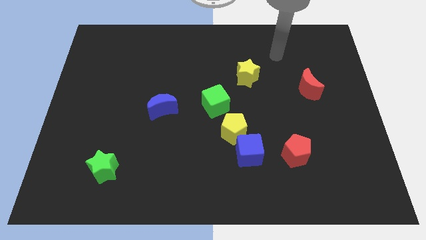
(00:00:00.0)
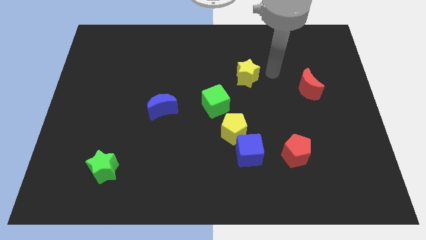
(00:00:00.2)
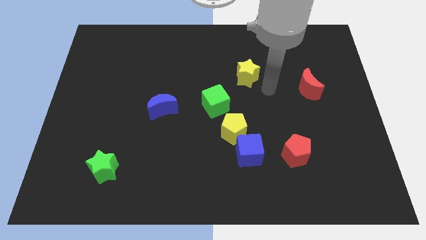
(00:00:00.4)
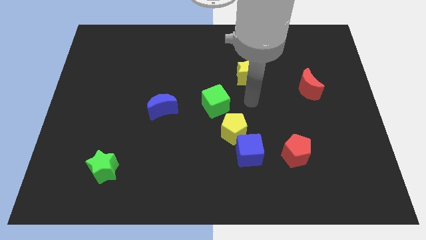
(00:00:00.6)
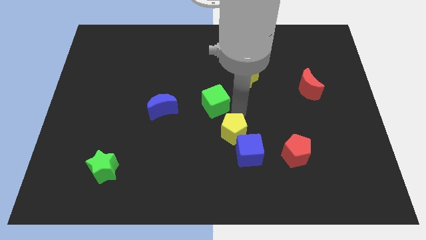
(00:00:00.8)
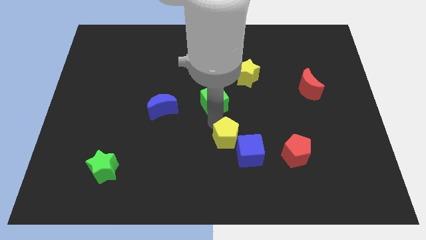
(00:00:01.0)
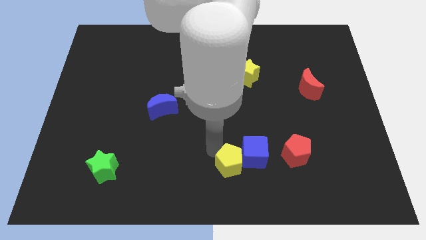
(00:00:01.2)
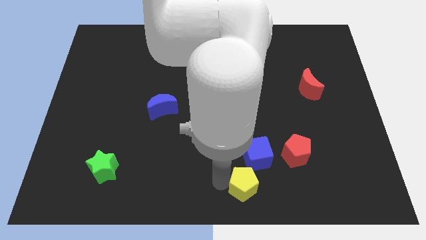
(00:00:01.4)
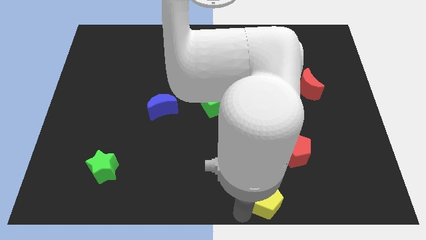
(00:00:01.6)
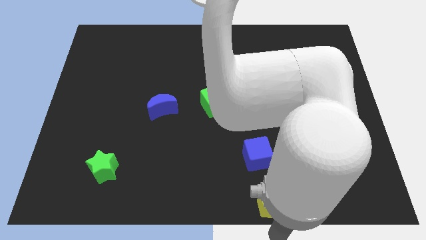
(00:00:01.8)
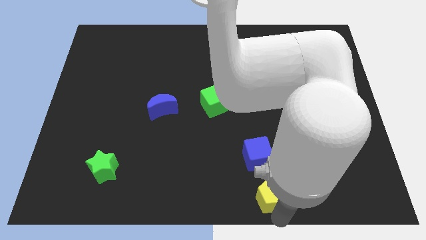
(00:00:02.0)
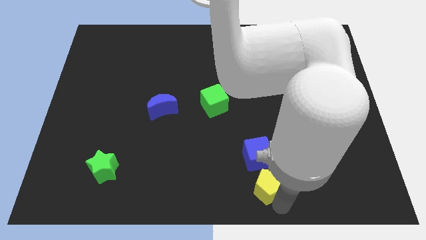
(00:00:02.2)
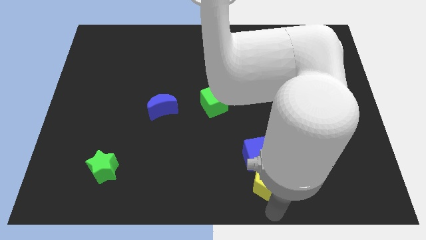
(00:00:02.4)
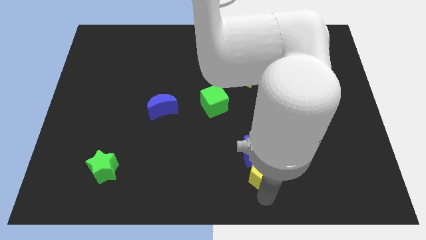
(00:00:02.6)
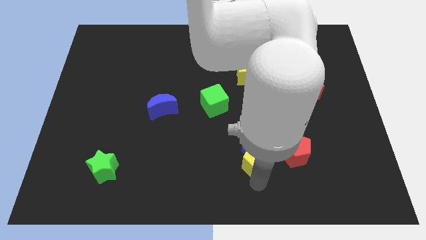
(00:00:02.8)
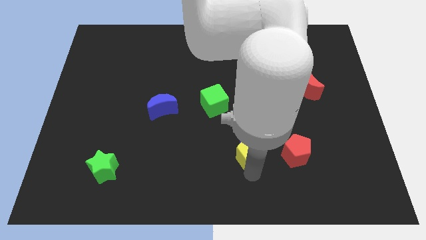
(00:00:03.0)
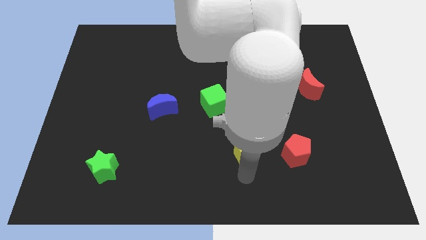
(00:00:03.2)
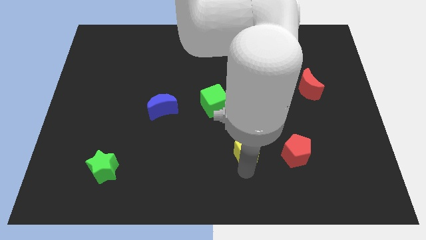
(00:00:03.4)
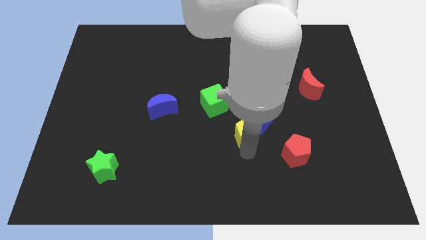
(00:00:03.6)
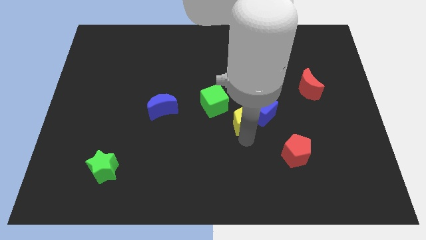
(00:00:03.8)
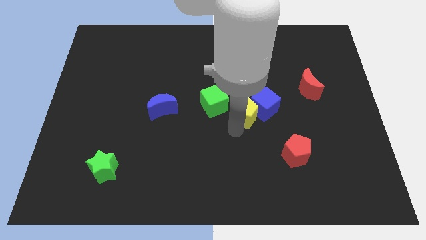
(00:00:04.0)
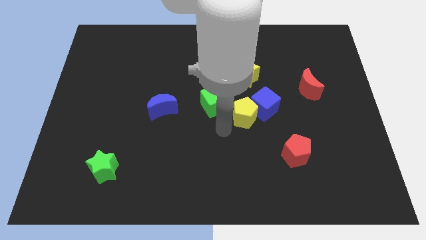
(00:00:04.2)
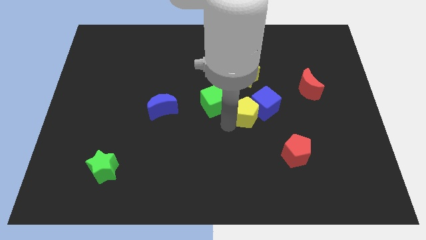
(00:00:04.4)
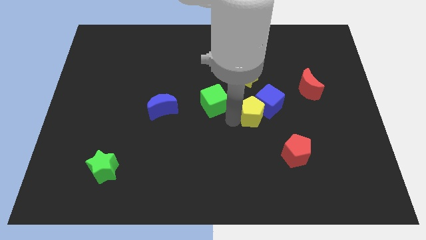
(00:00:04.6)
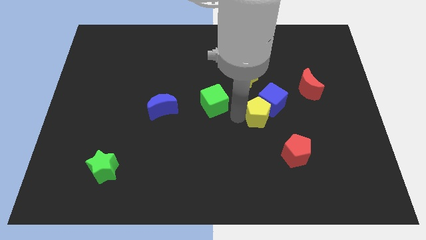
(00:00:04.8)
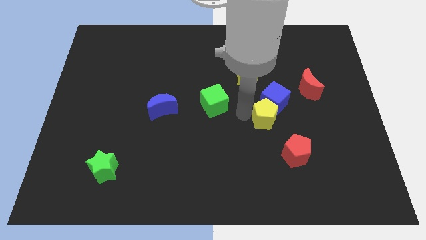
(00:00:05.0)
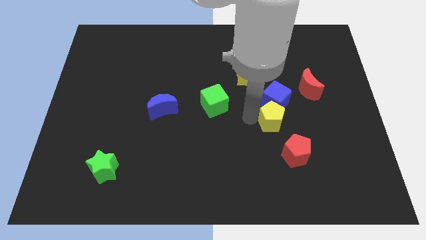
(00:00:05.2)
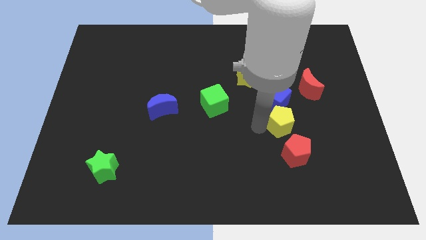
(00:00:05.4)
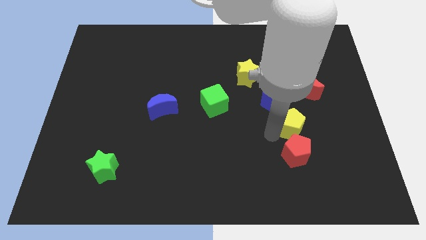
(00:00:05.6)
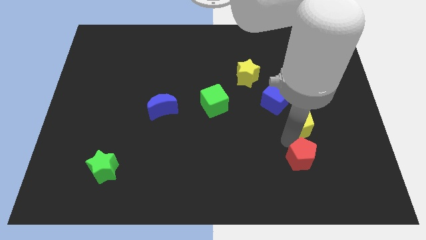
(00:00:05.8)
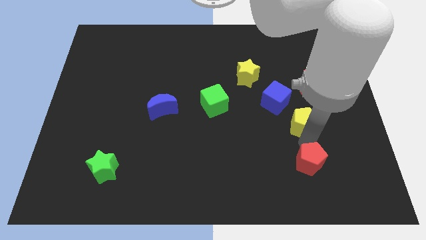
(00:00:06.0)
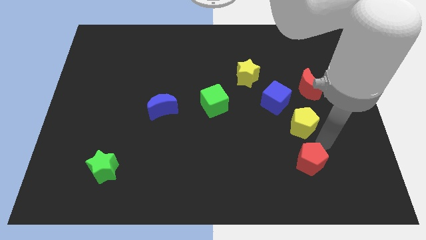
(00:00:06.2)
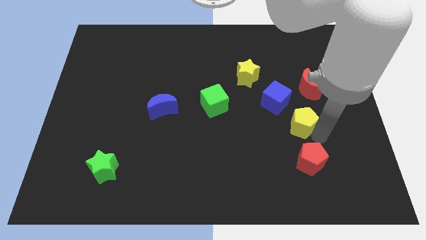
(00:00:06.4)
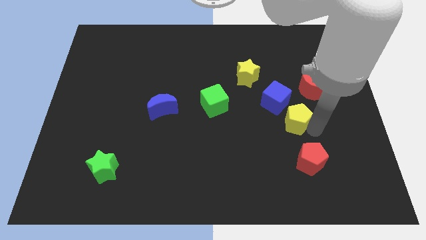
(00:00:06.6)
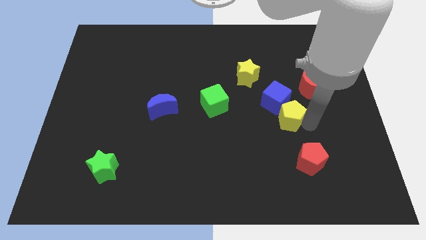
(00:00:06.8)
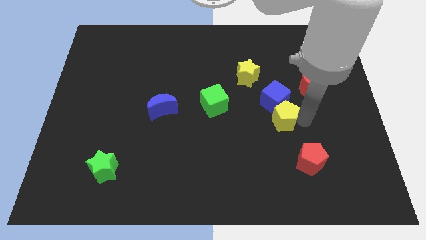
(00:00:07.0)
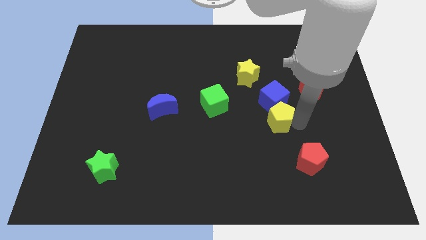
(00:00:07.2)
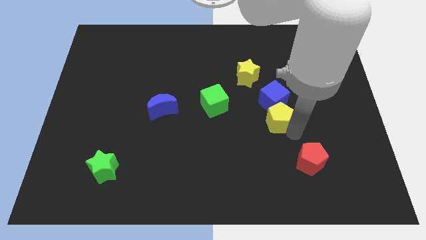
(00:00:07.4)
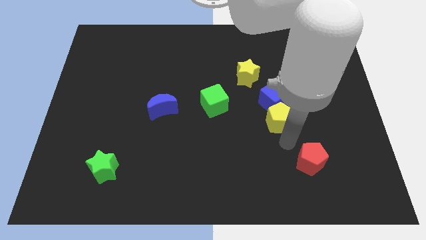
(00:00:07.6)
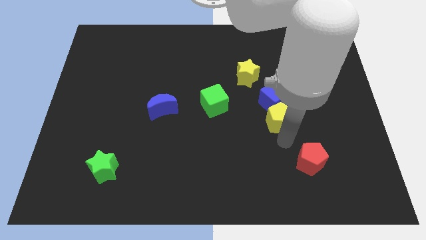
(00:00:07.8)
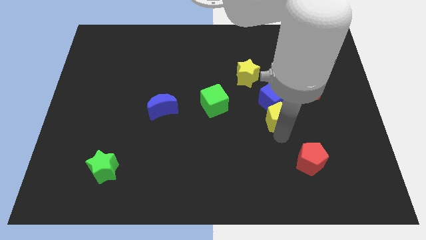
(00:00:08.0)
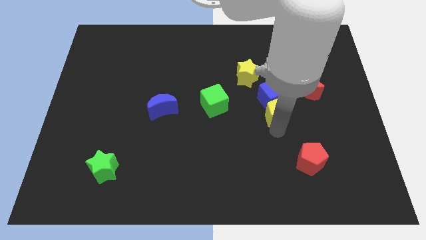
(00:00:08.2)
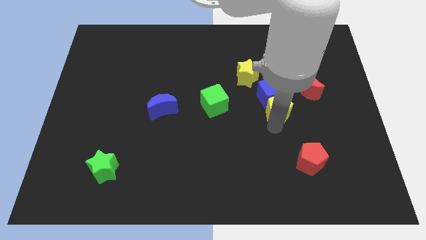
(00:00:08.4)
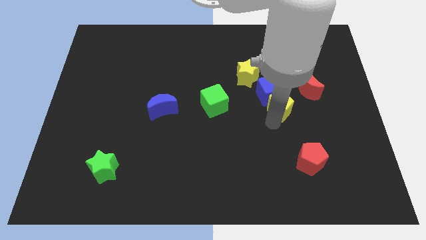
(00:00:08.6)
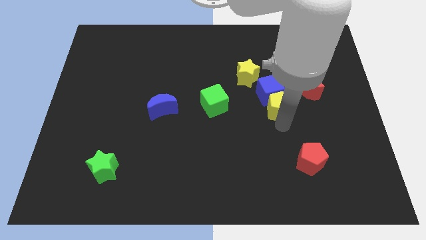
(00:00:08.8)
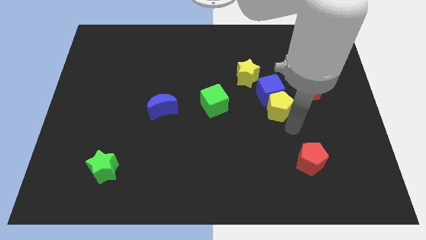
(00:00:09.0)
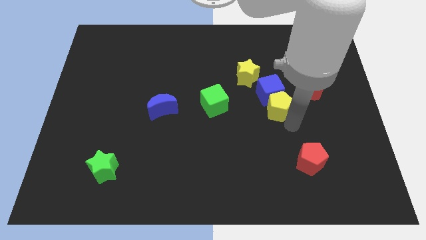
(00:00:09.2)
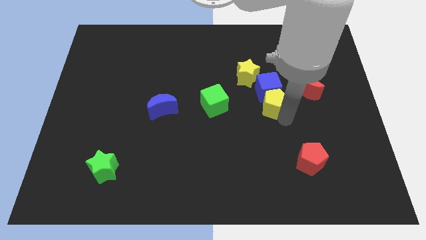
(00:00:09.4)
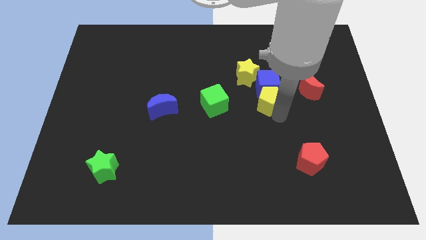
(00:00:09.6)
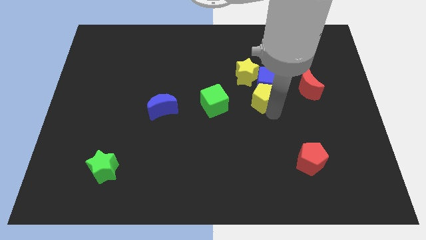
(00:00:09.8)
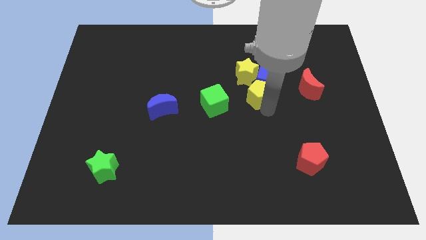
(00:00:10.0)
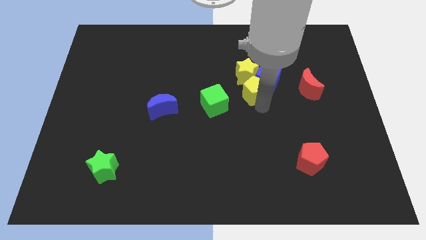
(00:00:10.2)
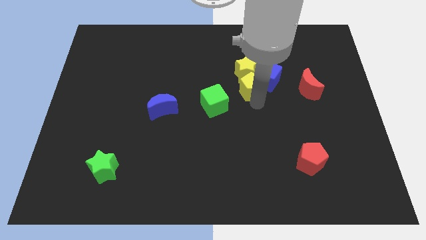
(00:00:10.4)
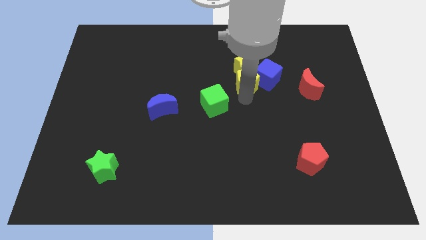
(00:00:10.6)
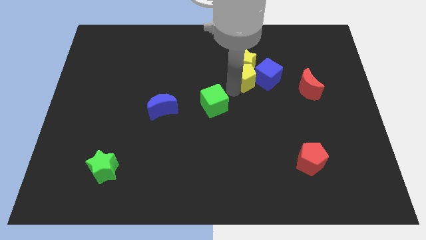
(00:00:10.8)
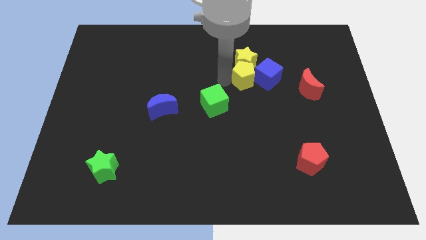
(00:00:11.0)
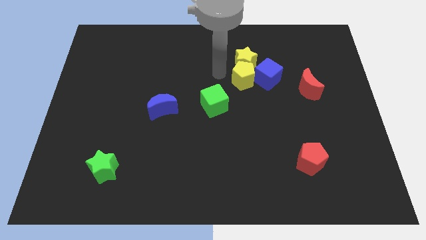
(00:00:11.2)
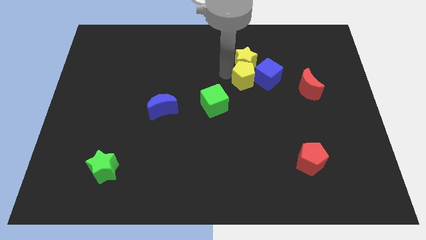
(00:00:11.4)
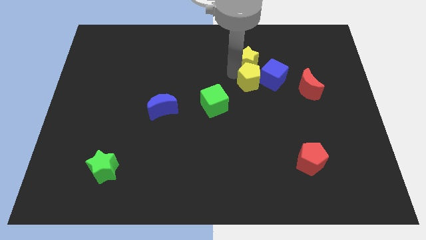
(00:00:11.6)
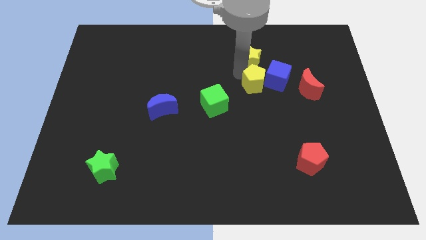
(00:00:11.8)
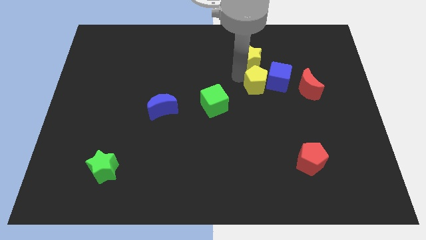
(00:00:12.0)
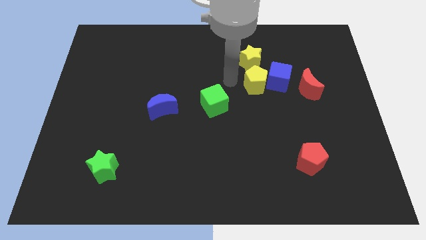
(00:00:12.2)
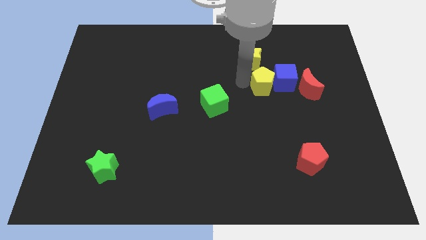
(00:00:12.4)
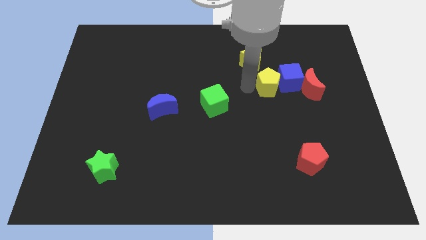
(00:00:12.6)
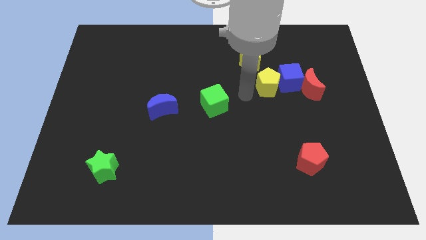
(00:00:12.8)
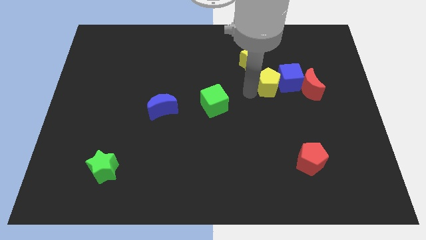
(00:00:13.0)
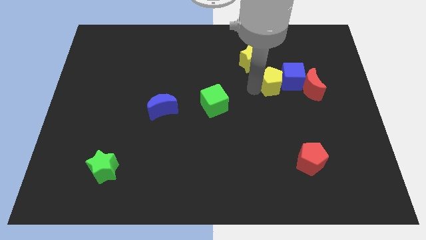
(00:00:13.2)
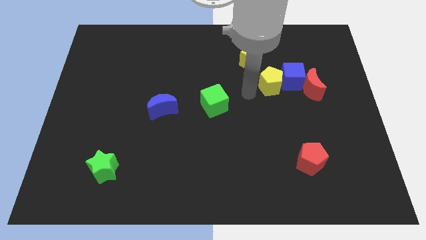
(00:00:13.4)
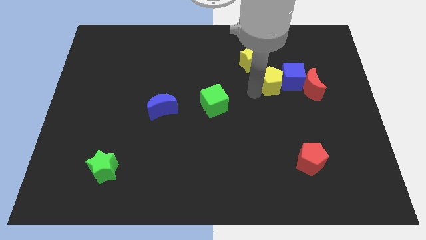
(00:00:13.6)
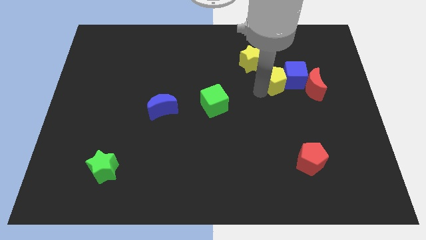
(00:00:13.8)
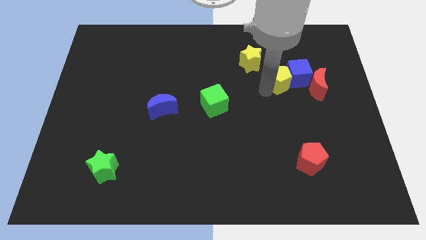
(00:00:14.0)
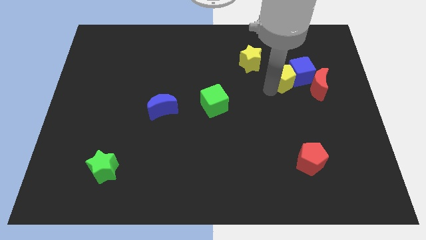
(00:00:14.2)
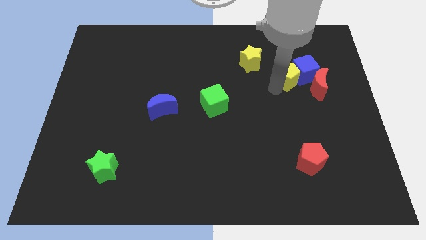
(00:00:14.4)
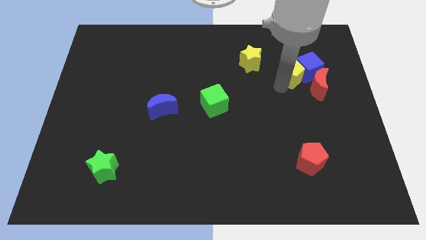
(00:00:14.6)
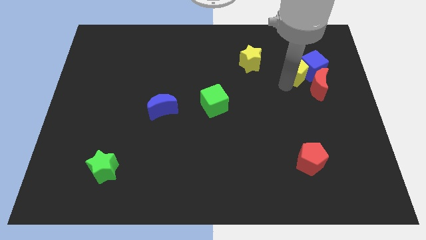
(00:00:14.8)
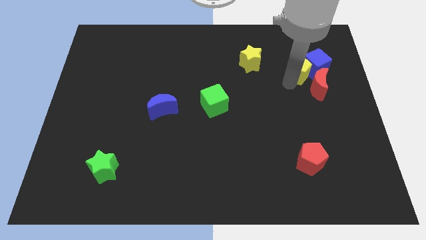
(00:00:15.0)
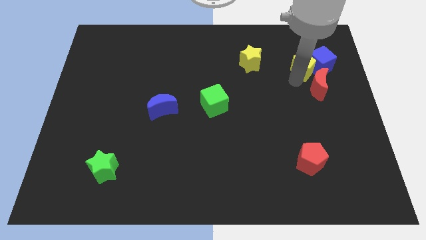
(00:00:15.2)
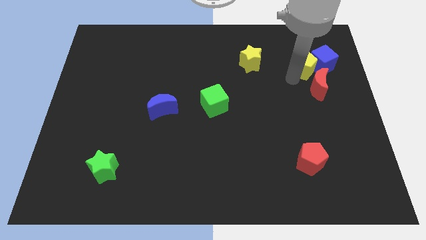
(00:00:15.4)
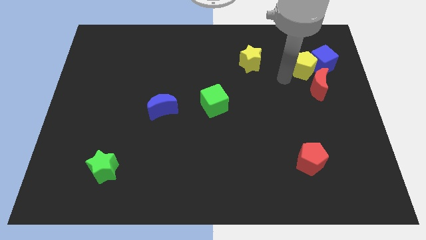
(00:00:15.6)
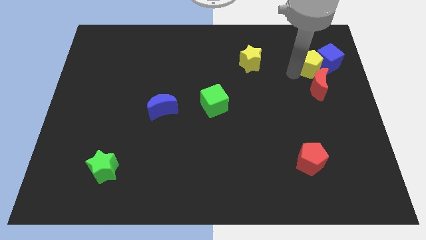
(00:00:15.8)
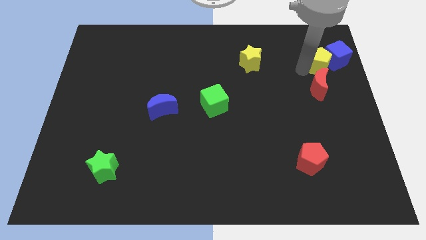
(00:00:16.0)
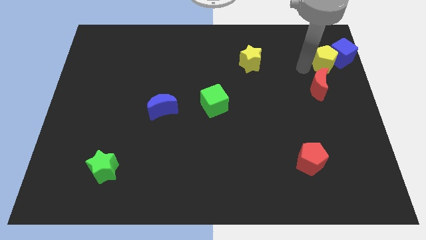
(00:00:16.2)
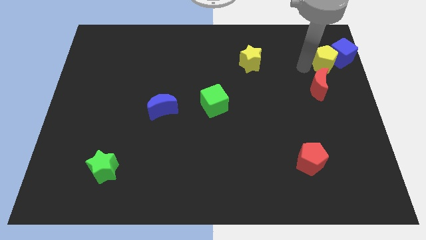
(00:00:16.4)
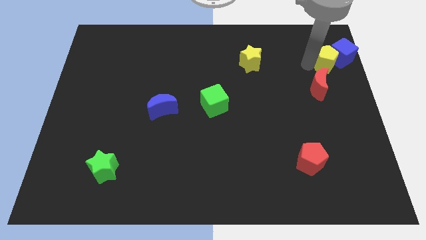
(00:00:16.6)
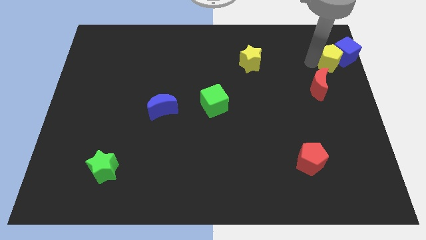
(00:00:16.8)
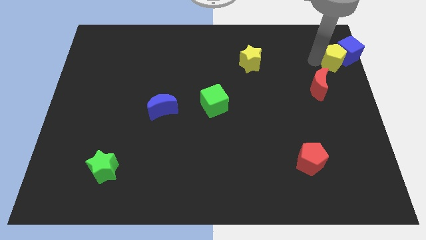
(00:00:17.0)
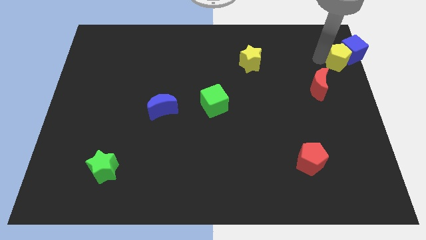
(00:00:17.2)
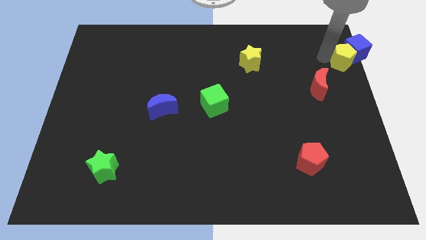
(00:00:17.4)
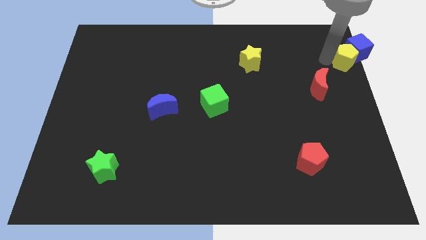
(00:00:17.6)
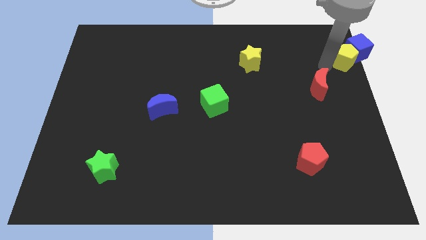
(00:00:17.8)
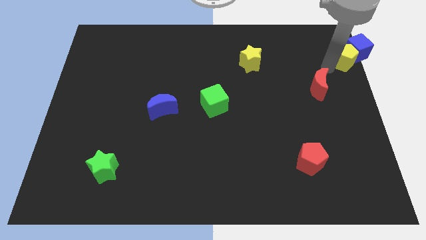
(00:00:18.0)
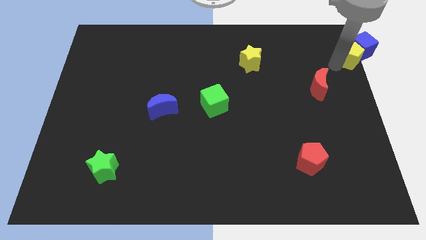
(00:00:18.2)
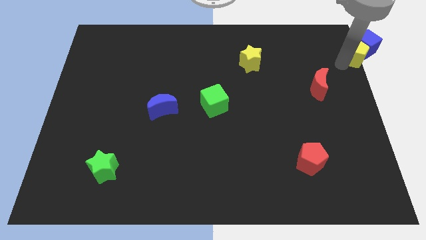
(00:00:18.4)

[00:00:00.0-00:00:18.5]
put the yellow pentagon to the top right corner
